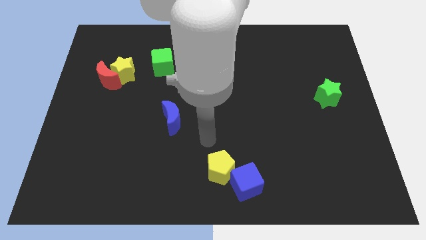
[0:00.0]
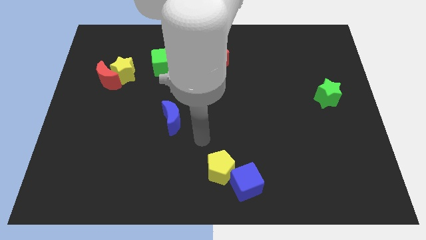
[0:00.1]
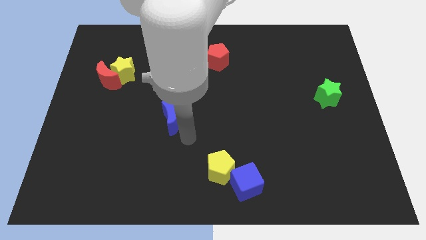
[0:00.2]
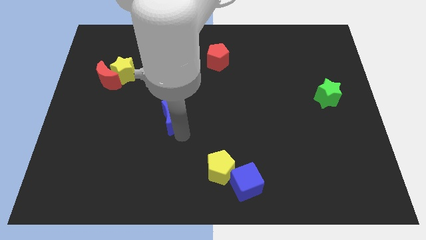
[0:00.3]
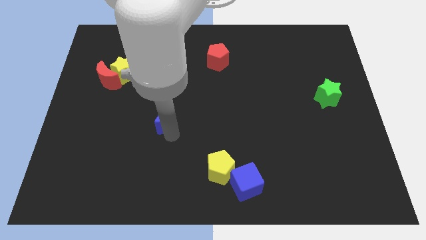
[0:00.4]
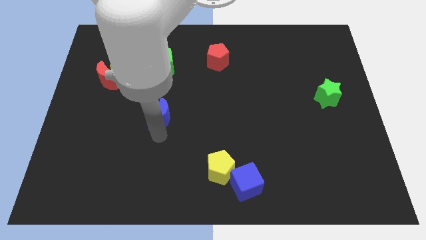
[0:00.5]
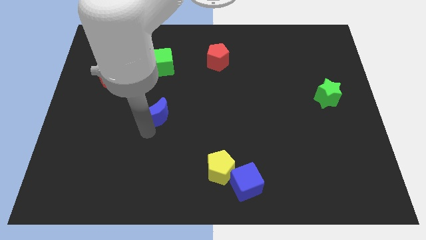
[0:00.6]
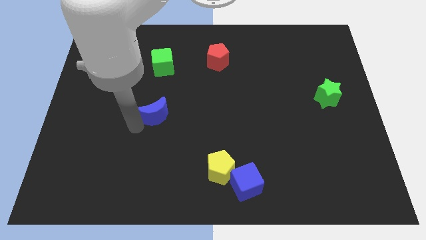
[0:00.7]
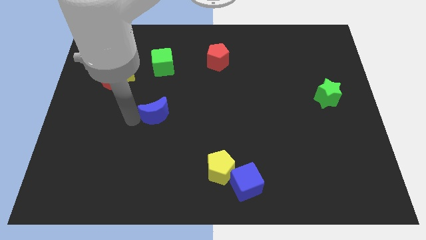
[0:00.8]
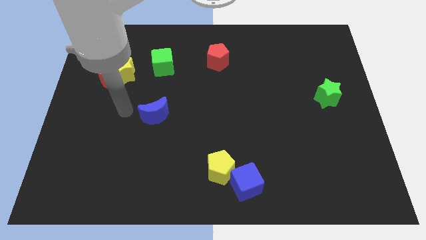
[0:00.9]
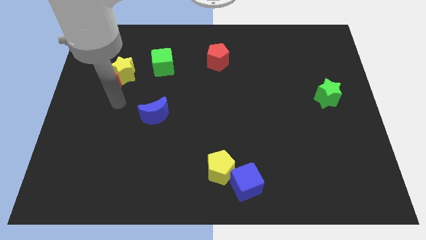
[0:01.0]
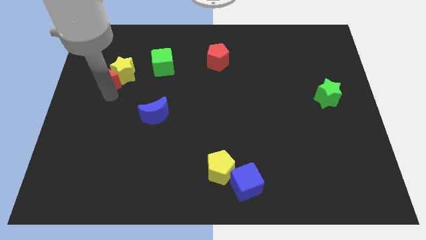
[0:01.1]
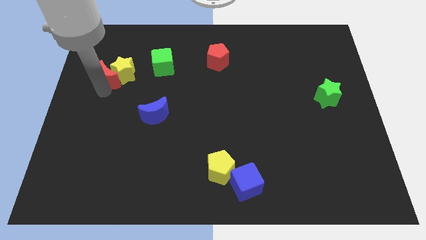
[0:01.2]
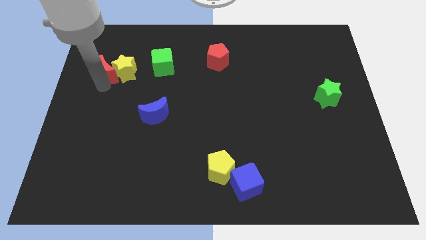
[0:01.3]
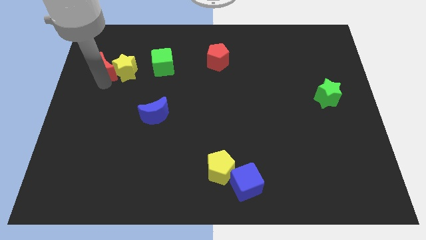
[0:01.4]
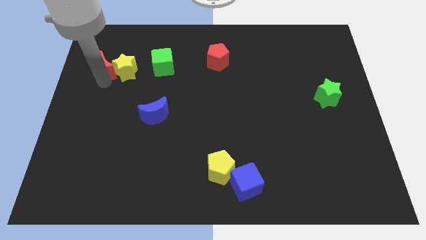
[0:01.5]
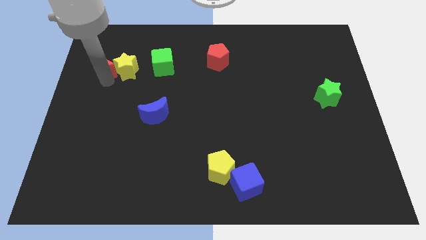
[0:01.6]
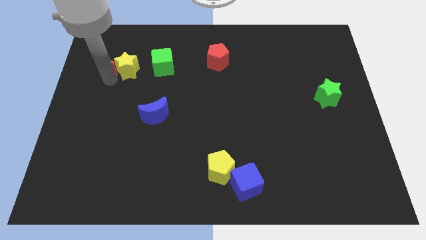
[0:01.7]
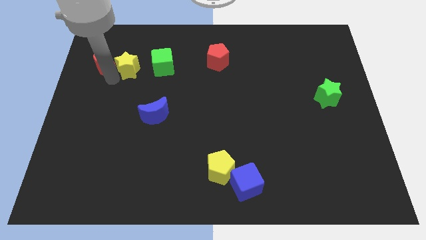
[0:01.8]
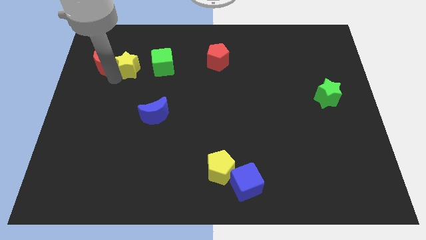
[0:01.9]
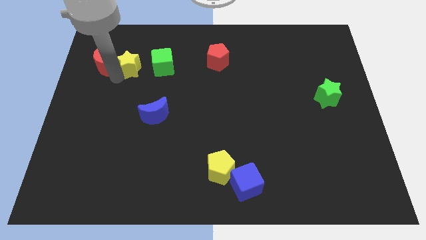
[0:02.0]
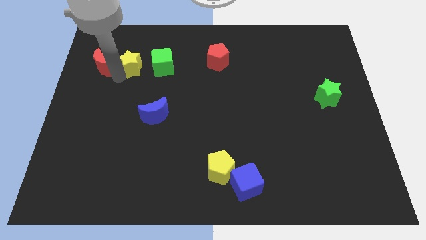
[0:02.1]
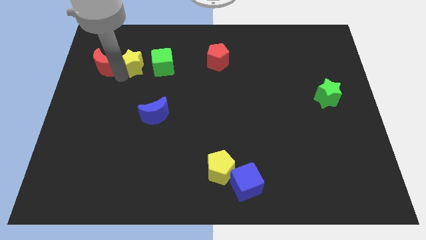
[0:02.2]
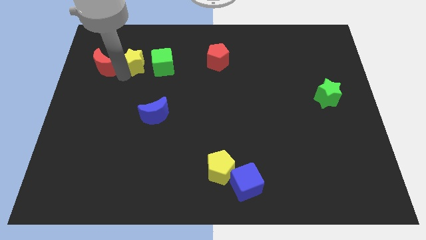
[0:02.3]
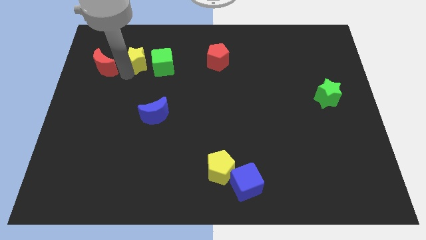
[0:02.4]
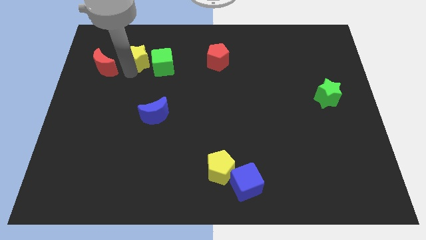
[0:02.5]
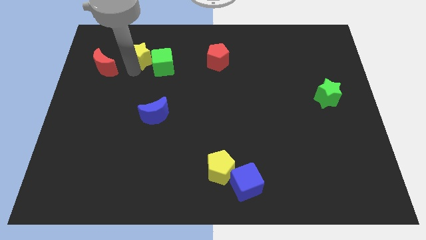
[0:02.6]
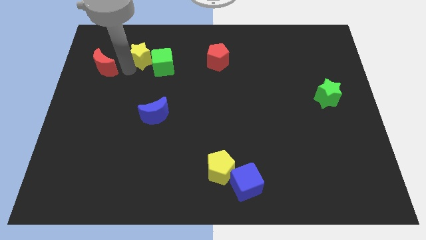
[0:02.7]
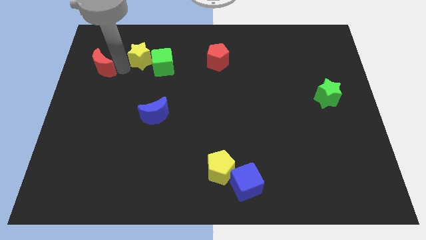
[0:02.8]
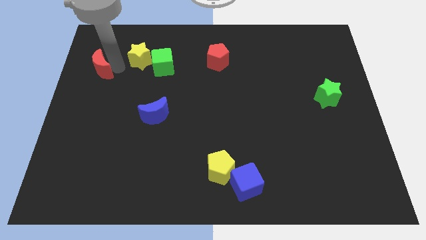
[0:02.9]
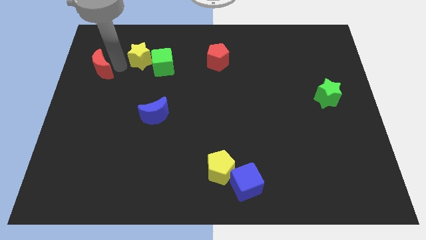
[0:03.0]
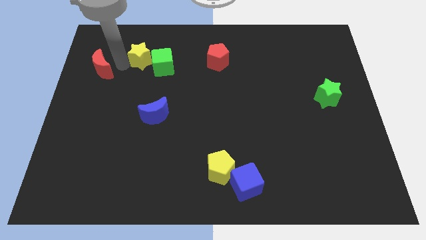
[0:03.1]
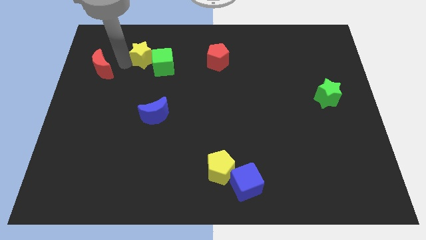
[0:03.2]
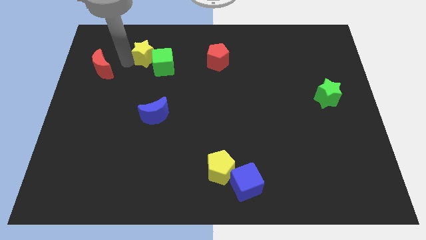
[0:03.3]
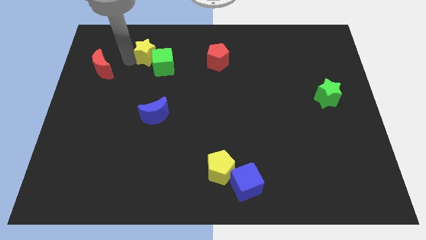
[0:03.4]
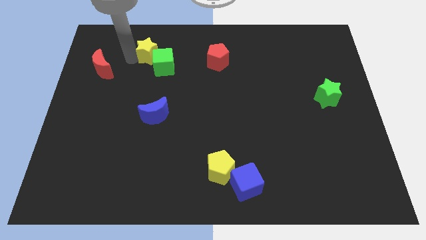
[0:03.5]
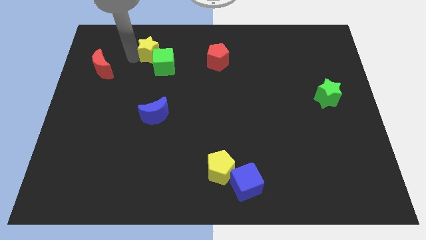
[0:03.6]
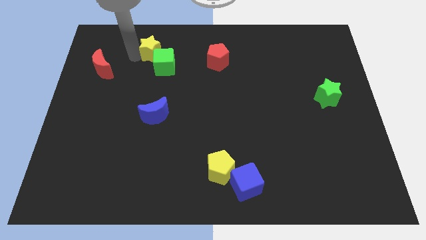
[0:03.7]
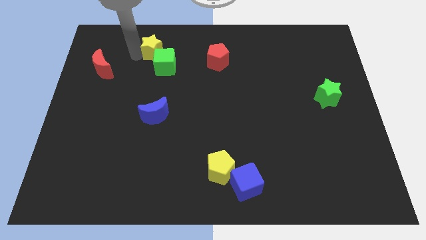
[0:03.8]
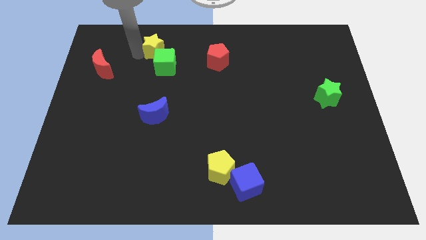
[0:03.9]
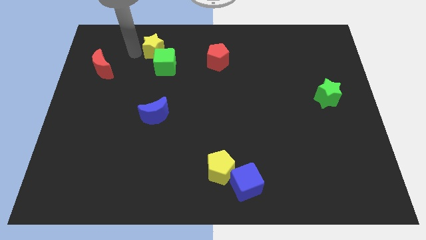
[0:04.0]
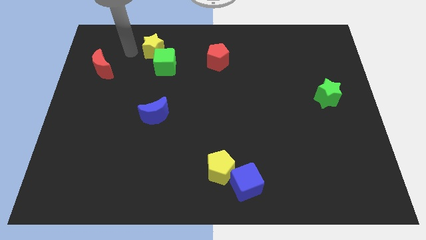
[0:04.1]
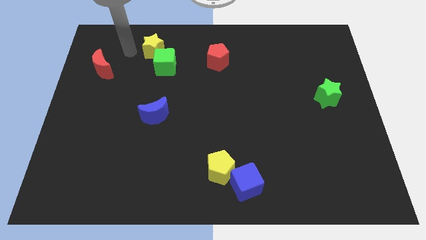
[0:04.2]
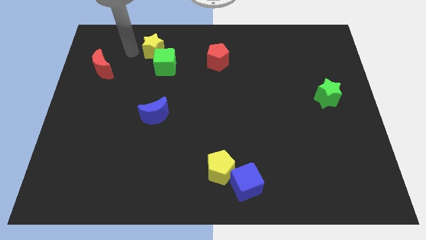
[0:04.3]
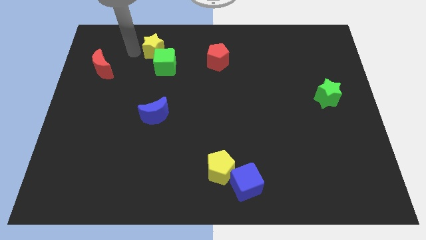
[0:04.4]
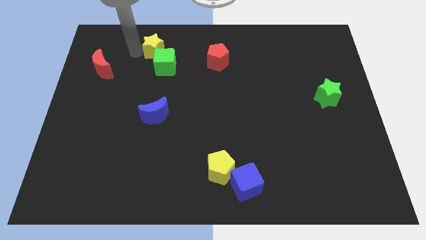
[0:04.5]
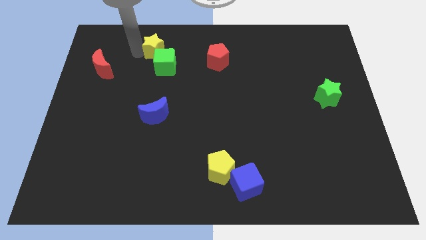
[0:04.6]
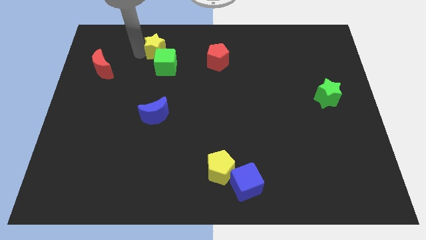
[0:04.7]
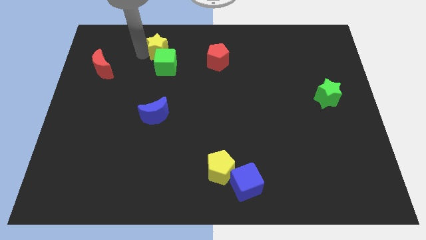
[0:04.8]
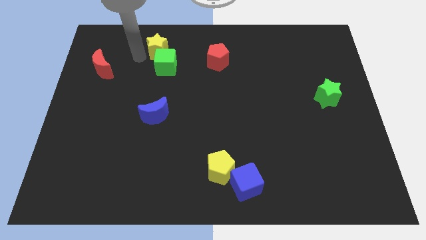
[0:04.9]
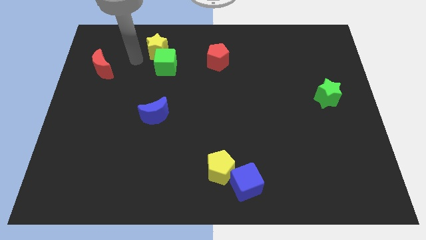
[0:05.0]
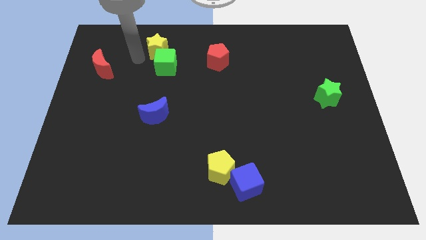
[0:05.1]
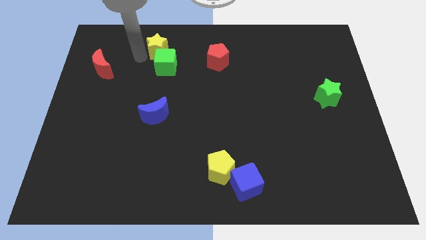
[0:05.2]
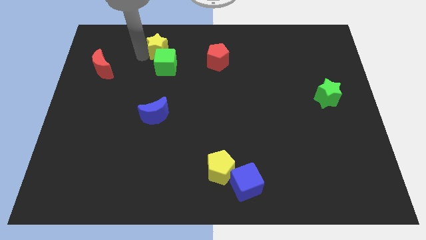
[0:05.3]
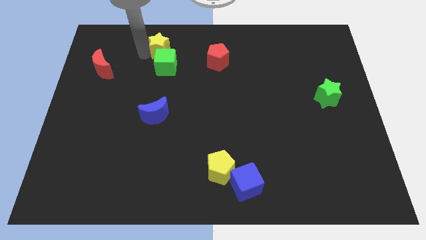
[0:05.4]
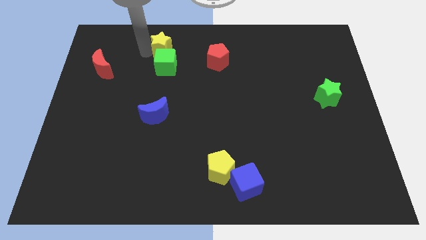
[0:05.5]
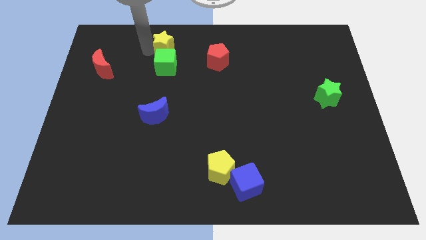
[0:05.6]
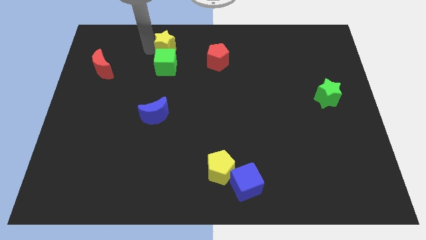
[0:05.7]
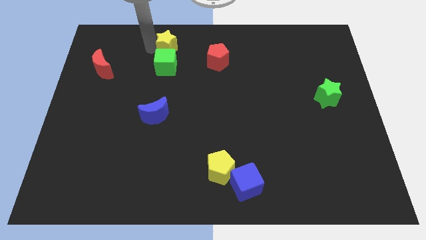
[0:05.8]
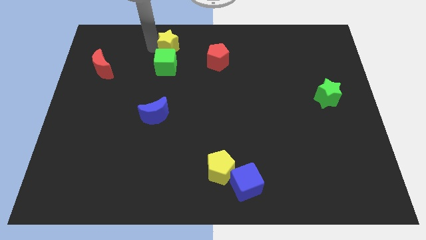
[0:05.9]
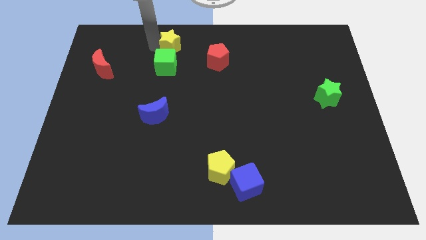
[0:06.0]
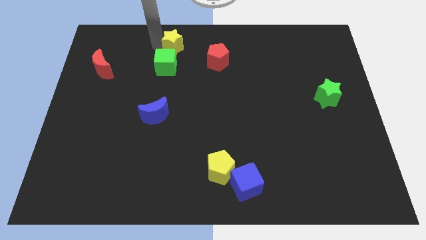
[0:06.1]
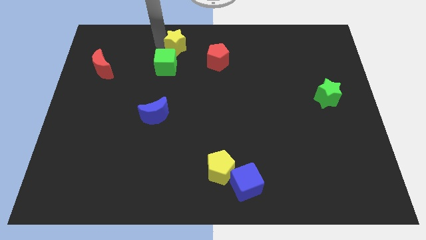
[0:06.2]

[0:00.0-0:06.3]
push the yellow star to the towards your base

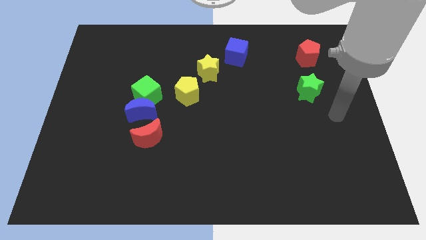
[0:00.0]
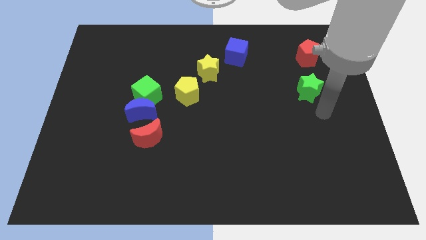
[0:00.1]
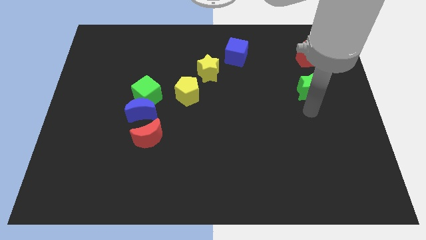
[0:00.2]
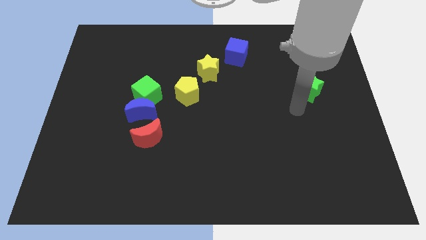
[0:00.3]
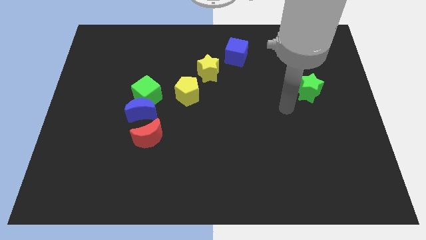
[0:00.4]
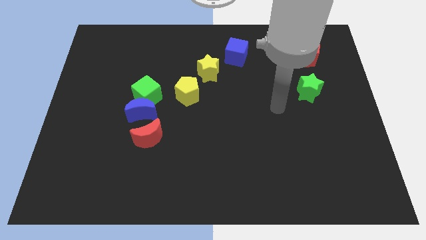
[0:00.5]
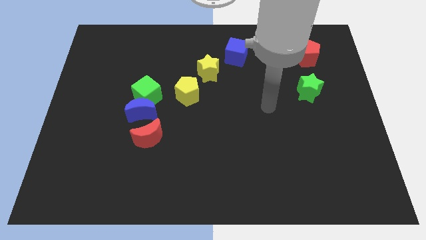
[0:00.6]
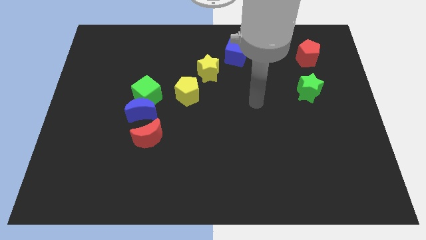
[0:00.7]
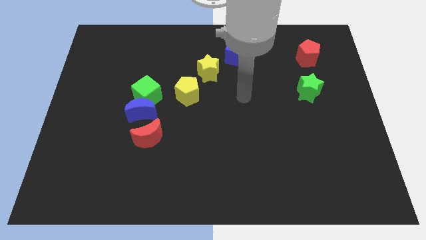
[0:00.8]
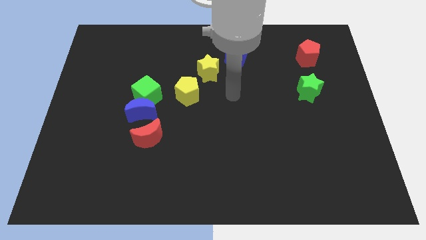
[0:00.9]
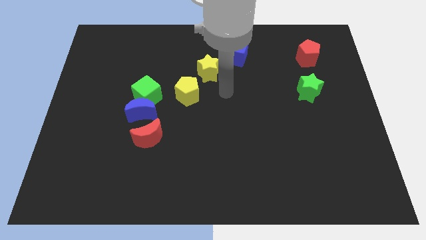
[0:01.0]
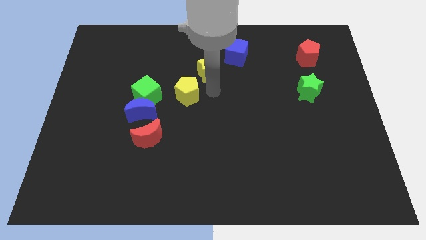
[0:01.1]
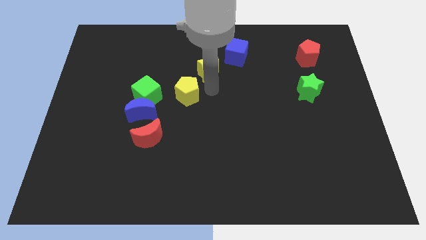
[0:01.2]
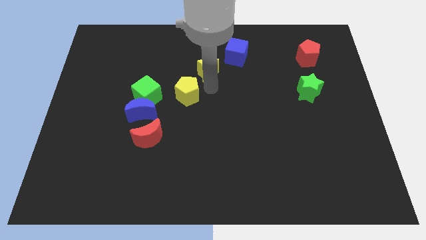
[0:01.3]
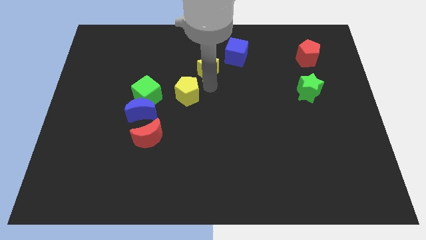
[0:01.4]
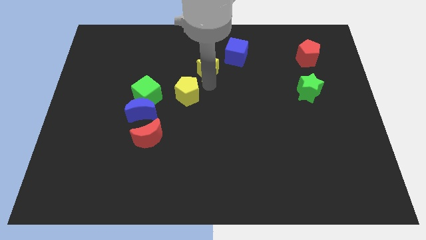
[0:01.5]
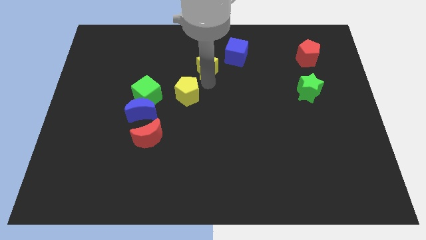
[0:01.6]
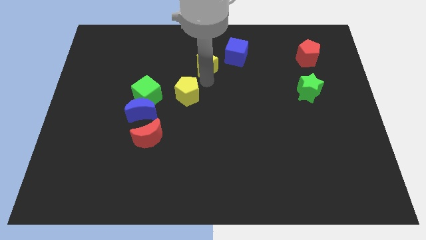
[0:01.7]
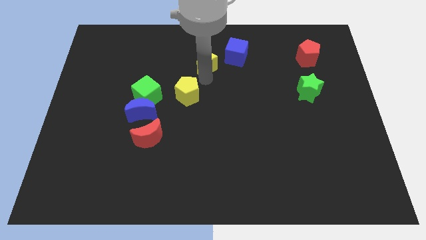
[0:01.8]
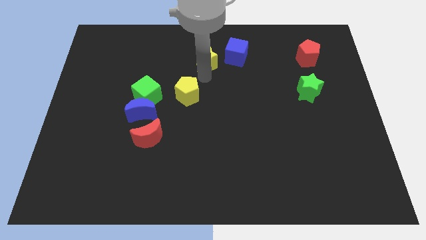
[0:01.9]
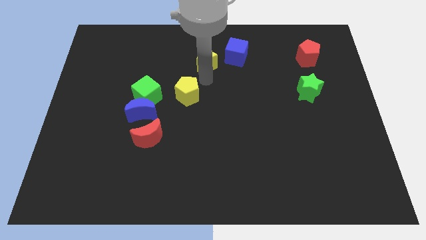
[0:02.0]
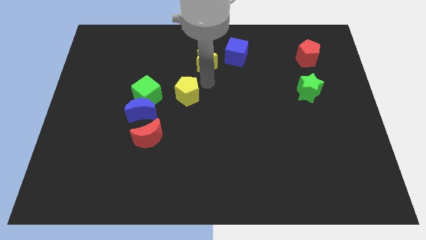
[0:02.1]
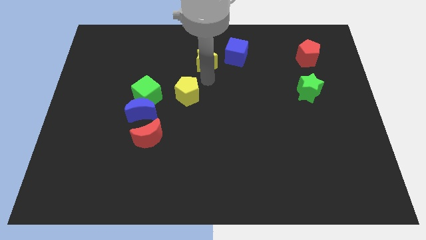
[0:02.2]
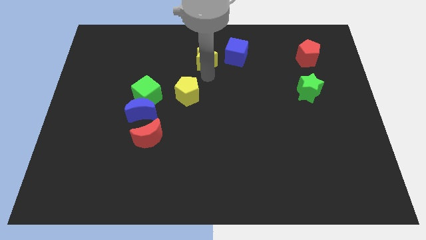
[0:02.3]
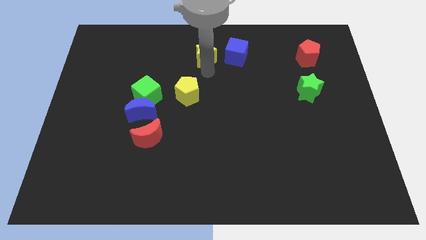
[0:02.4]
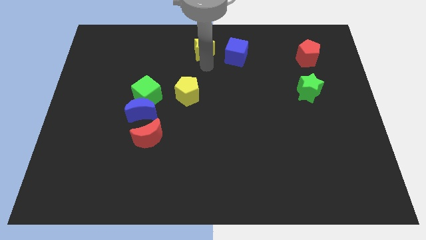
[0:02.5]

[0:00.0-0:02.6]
push the yellow star to the top side
